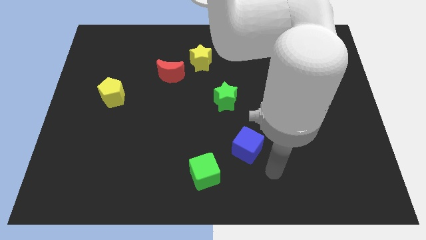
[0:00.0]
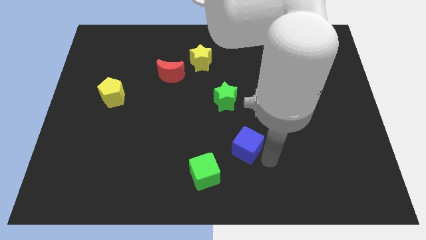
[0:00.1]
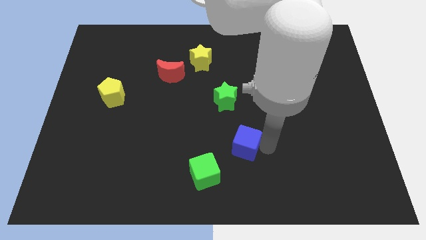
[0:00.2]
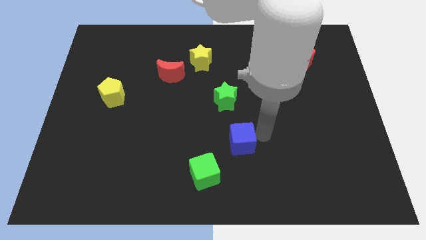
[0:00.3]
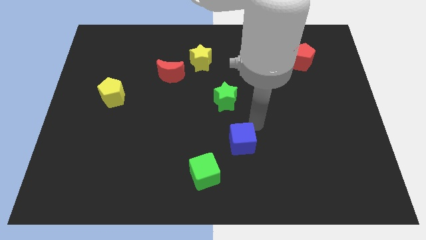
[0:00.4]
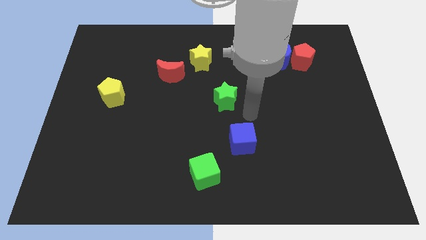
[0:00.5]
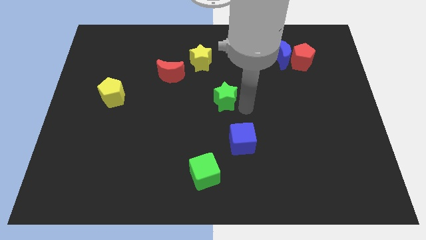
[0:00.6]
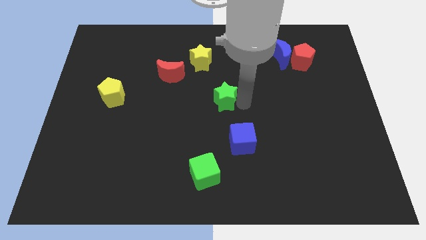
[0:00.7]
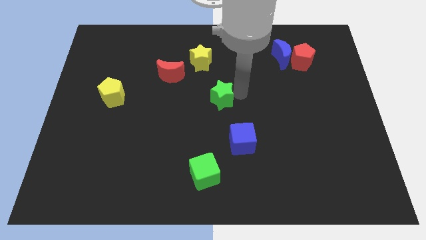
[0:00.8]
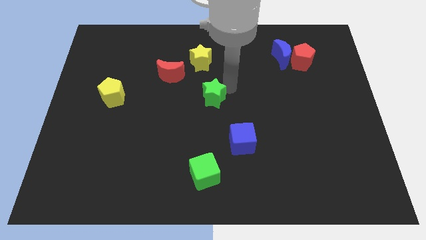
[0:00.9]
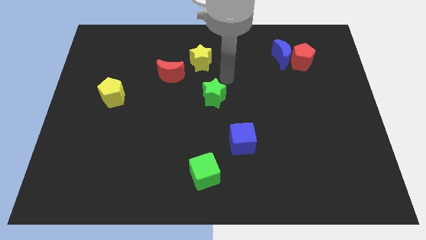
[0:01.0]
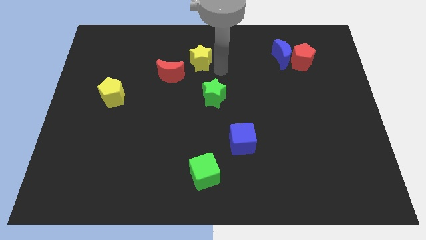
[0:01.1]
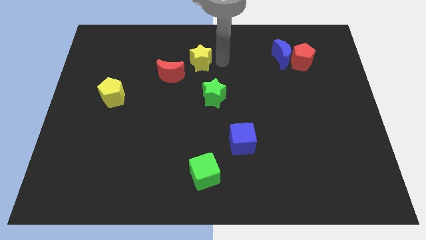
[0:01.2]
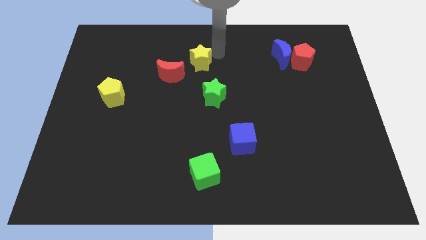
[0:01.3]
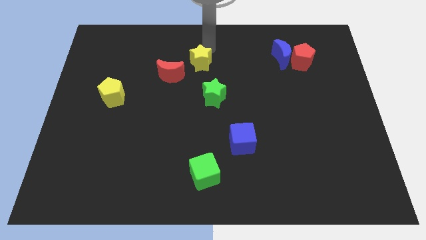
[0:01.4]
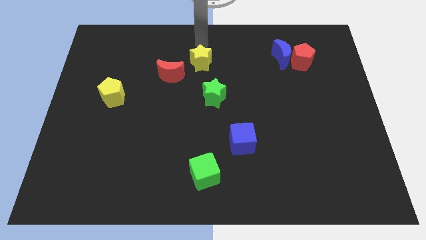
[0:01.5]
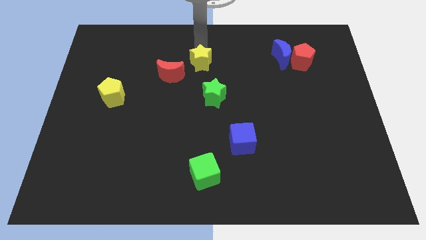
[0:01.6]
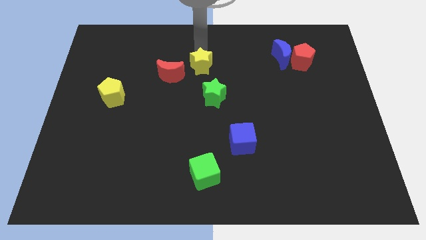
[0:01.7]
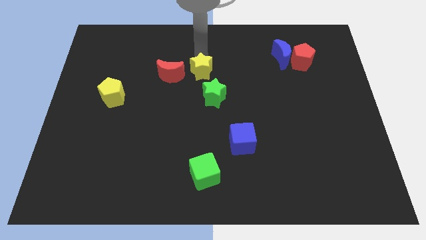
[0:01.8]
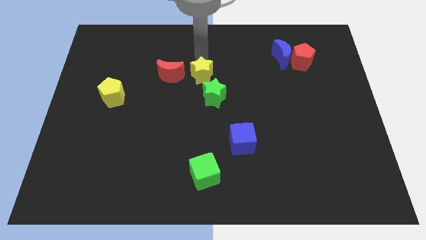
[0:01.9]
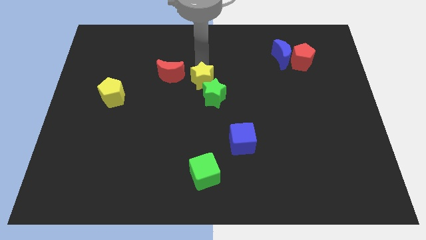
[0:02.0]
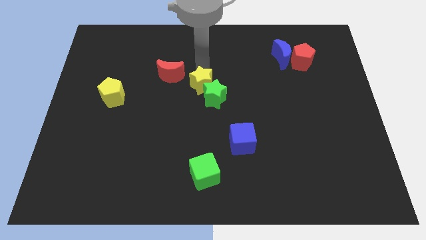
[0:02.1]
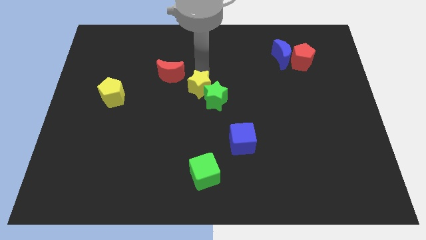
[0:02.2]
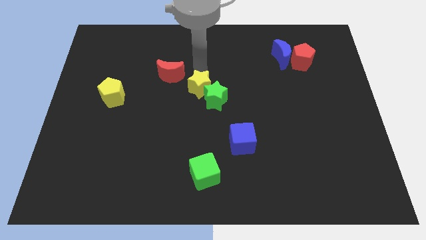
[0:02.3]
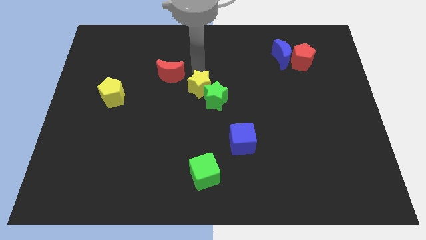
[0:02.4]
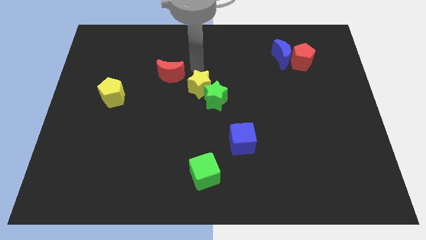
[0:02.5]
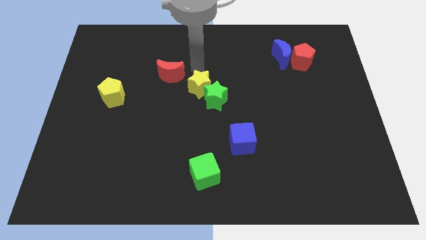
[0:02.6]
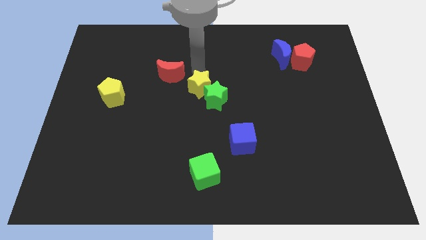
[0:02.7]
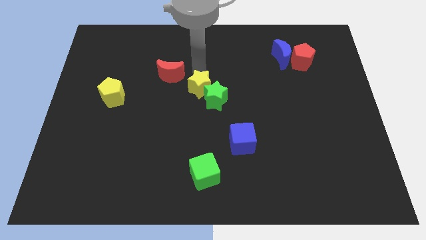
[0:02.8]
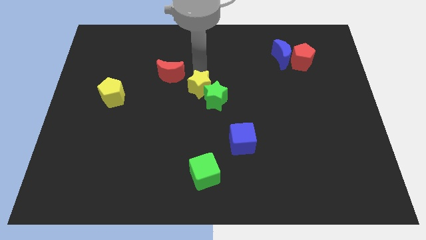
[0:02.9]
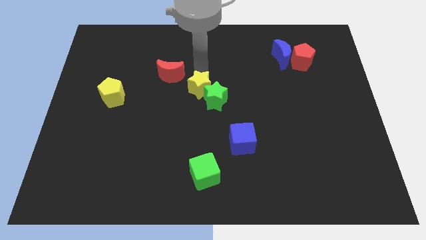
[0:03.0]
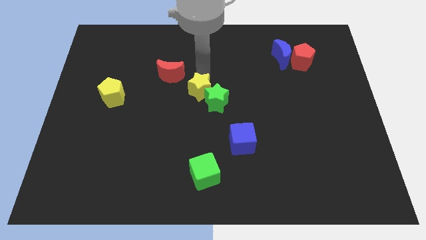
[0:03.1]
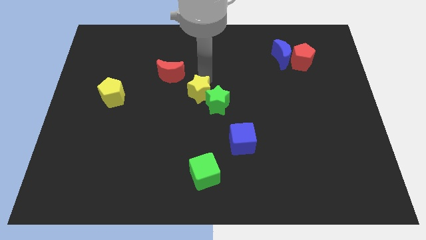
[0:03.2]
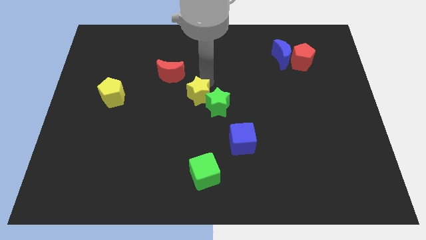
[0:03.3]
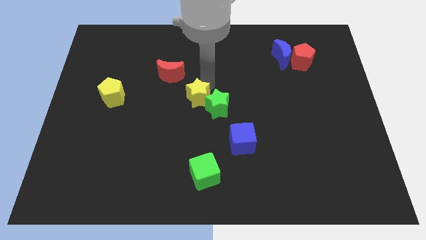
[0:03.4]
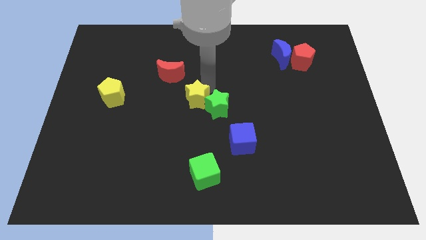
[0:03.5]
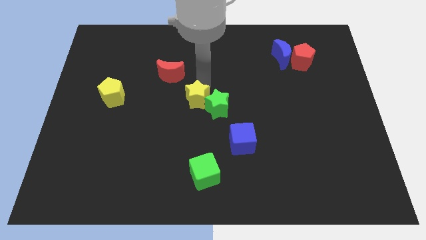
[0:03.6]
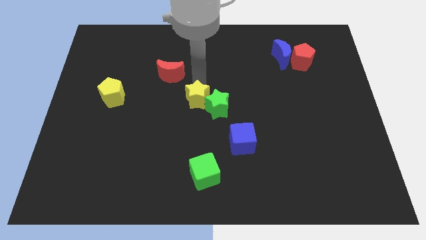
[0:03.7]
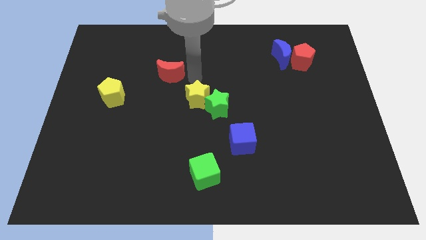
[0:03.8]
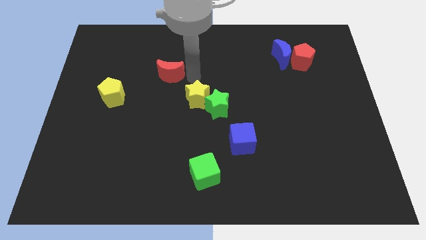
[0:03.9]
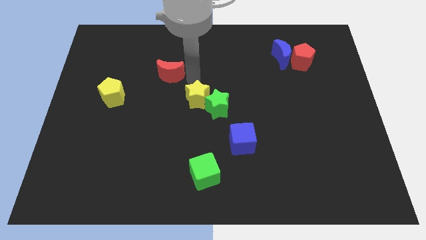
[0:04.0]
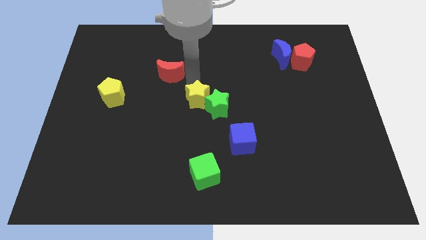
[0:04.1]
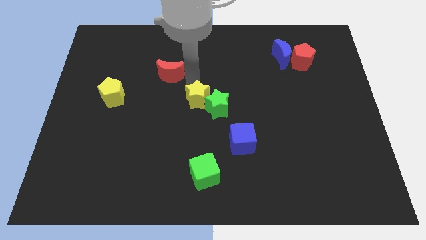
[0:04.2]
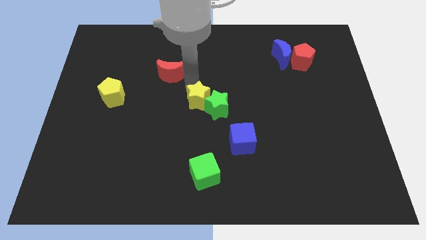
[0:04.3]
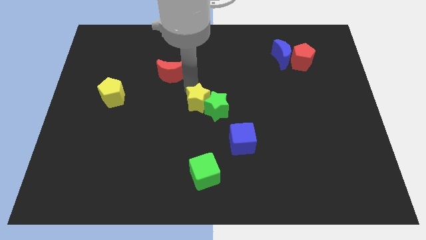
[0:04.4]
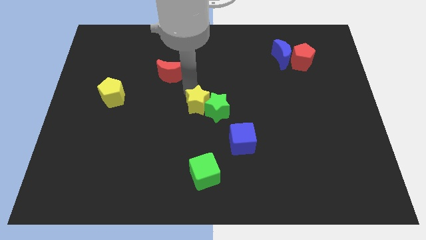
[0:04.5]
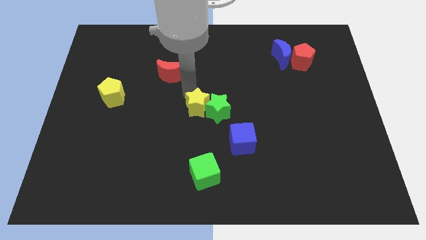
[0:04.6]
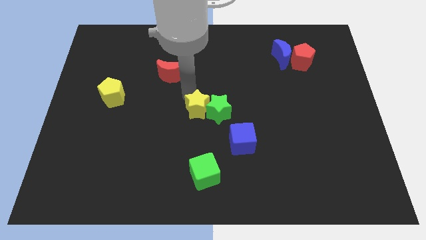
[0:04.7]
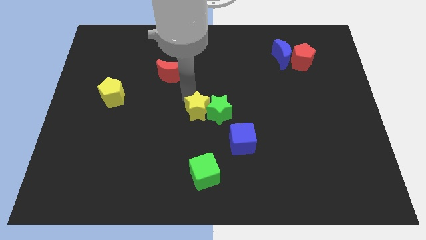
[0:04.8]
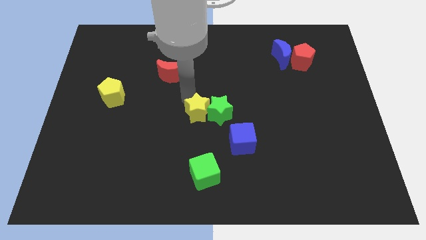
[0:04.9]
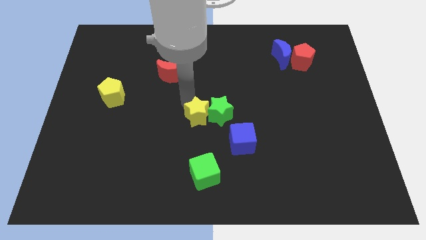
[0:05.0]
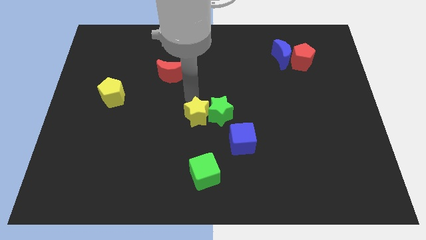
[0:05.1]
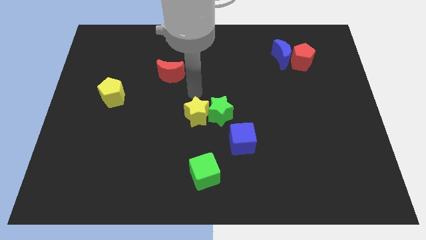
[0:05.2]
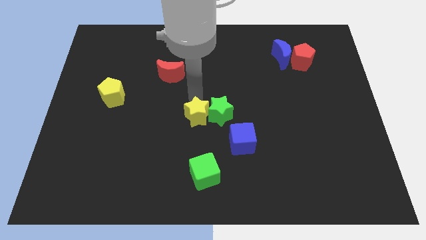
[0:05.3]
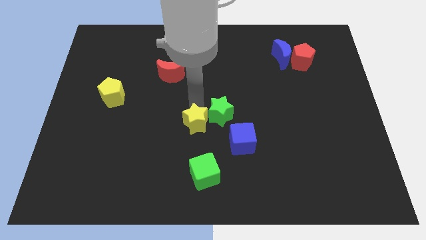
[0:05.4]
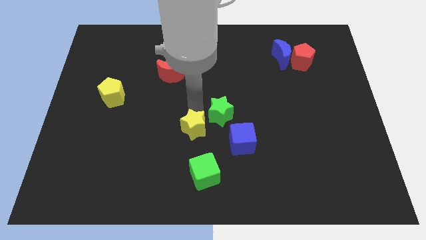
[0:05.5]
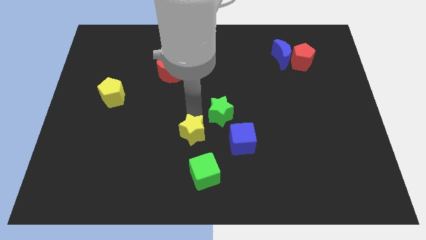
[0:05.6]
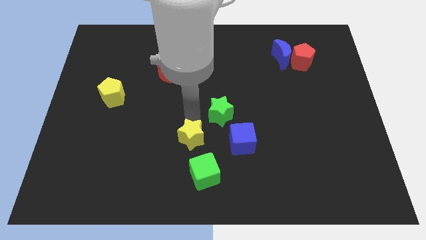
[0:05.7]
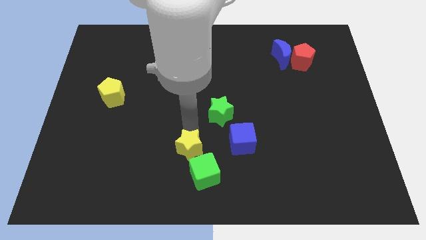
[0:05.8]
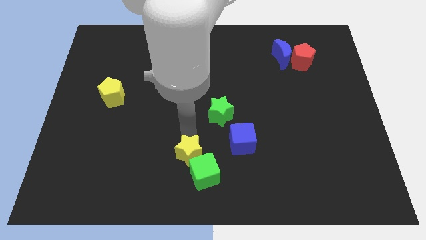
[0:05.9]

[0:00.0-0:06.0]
slide the yellow star close to the green cube
